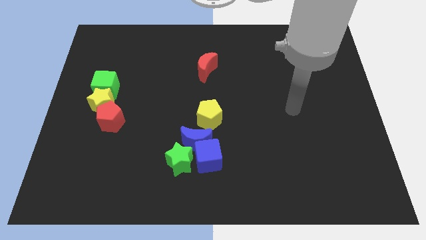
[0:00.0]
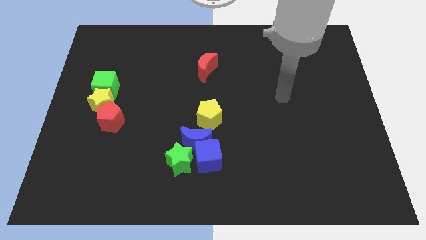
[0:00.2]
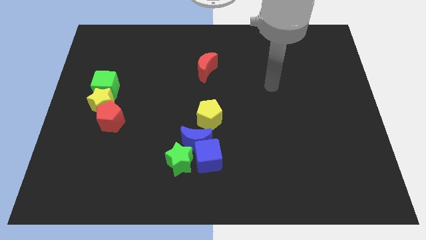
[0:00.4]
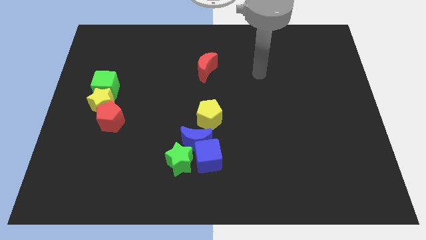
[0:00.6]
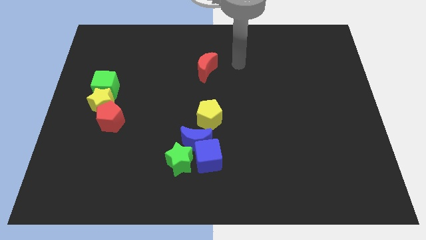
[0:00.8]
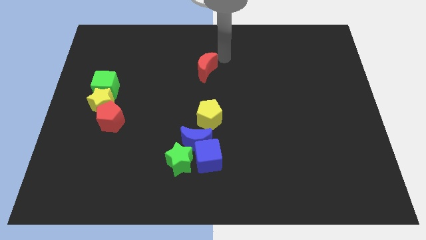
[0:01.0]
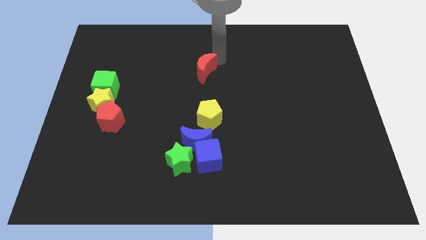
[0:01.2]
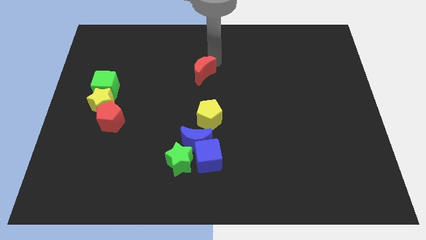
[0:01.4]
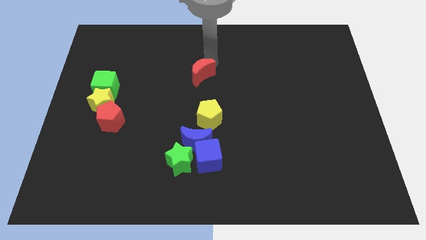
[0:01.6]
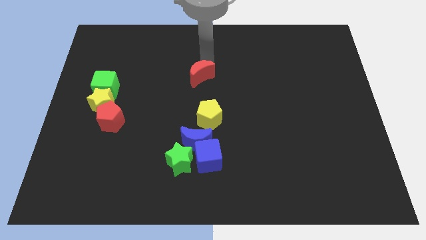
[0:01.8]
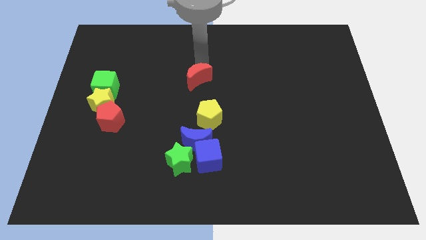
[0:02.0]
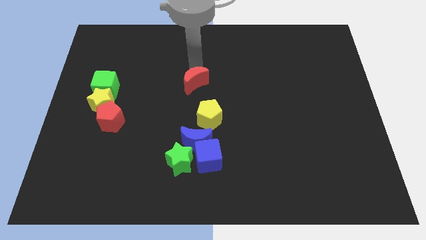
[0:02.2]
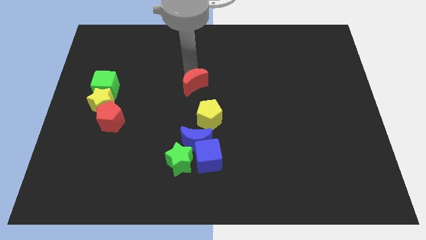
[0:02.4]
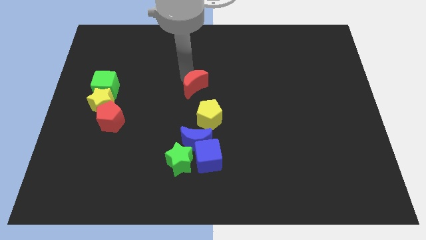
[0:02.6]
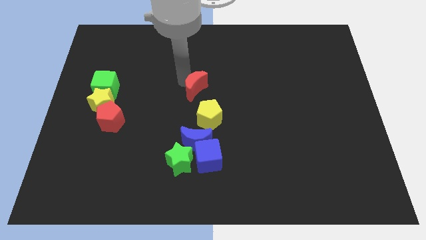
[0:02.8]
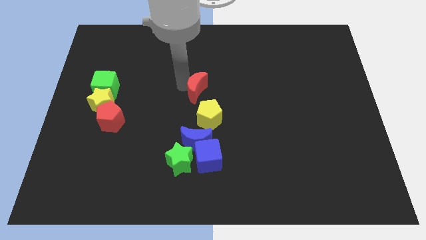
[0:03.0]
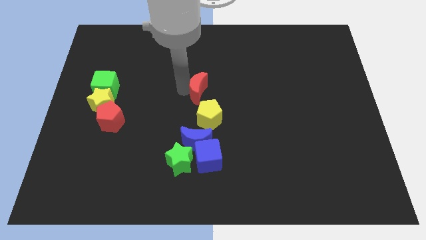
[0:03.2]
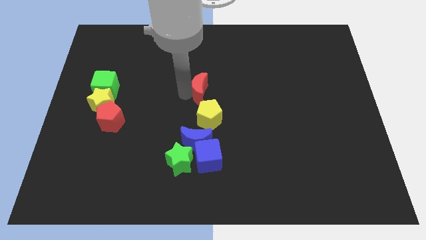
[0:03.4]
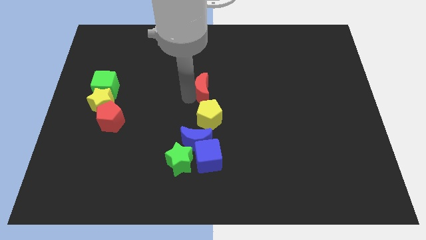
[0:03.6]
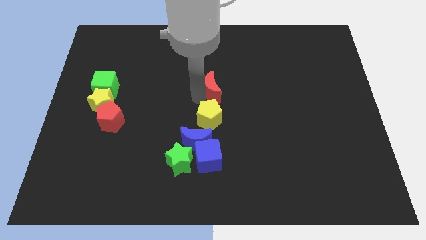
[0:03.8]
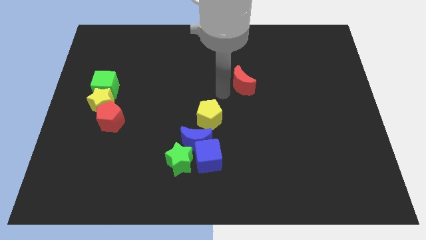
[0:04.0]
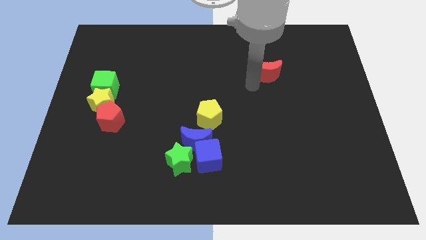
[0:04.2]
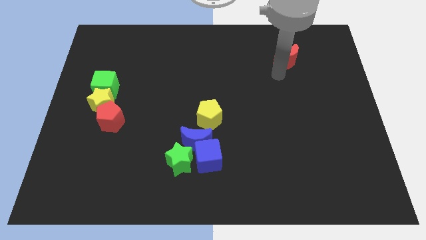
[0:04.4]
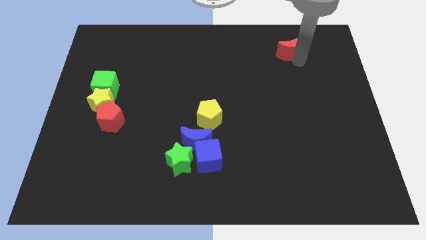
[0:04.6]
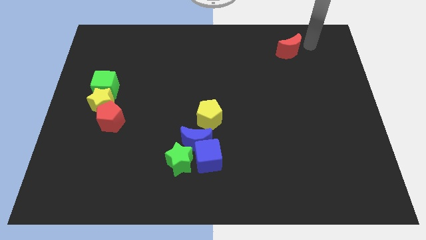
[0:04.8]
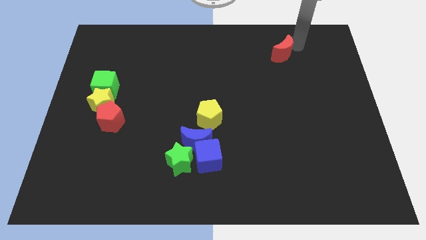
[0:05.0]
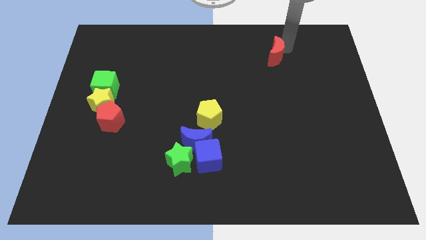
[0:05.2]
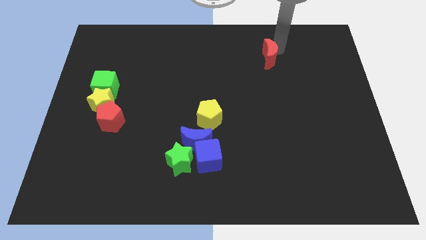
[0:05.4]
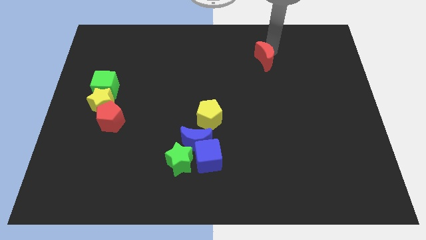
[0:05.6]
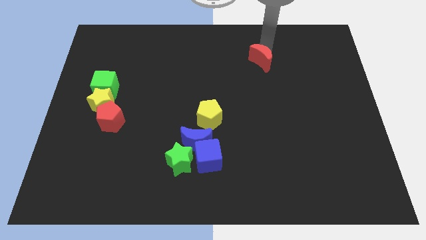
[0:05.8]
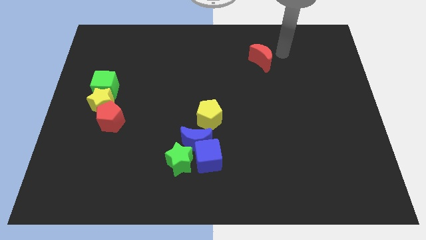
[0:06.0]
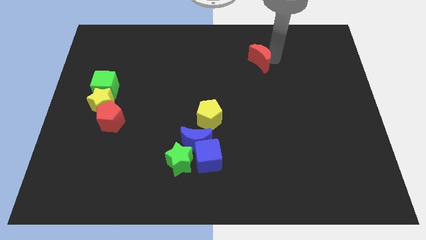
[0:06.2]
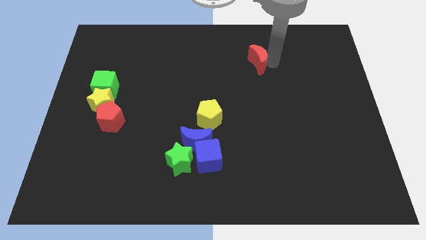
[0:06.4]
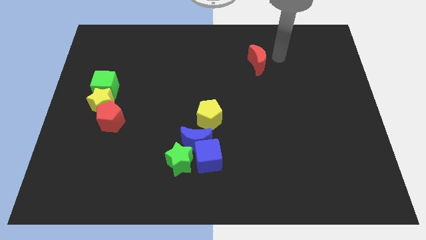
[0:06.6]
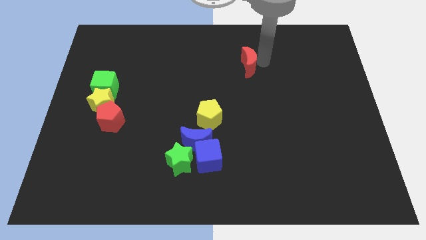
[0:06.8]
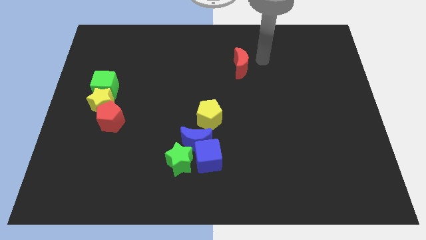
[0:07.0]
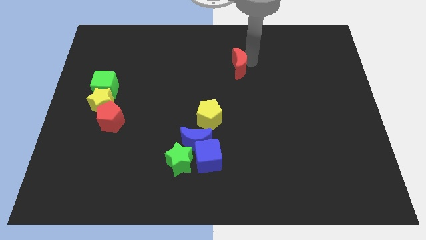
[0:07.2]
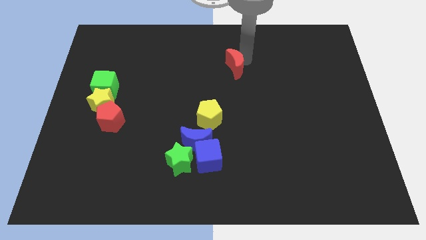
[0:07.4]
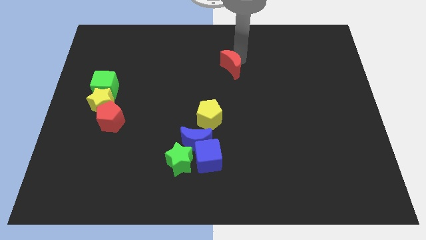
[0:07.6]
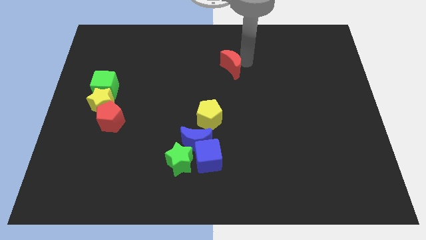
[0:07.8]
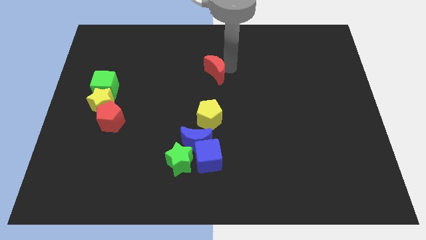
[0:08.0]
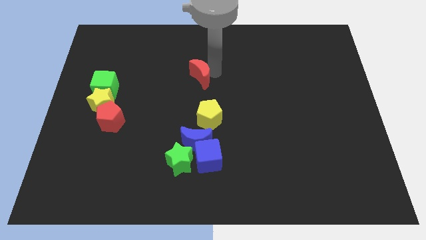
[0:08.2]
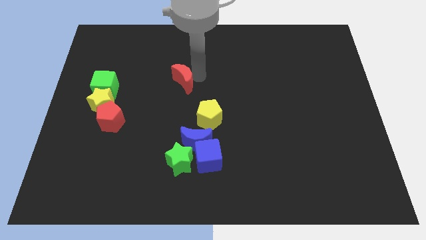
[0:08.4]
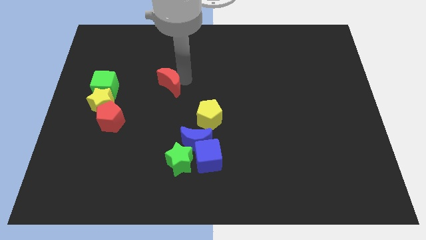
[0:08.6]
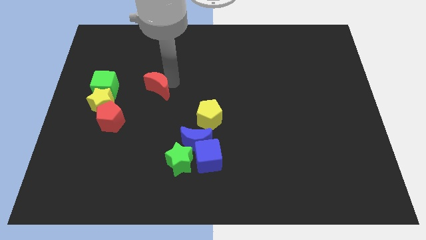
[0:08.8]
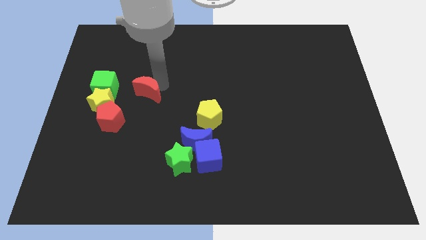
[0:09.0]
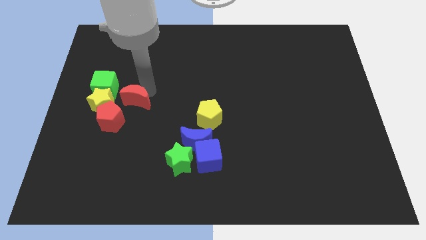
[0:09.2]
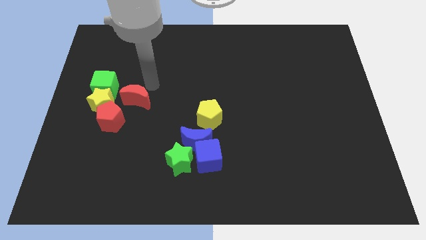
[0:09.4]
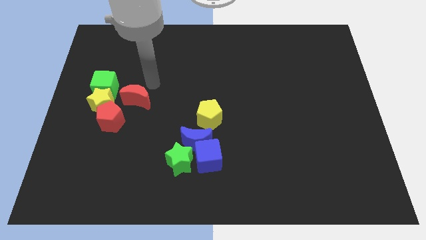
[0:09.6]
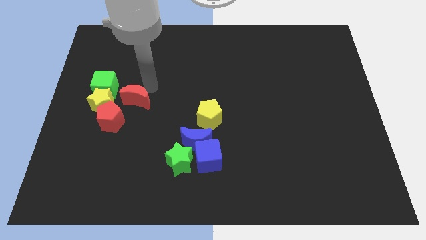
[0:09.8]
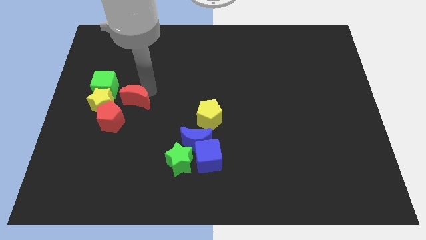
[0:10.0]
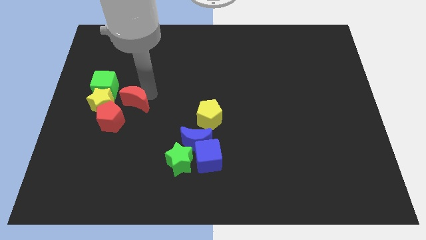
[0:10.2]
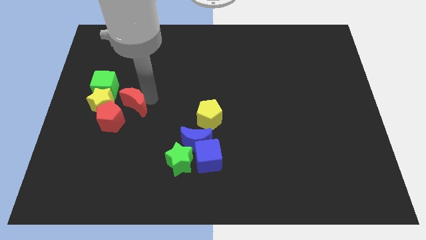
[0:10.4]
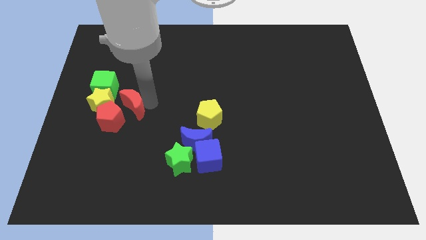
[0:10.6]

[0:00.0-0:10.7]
push the red moon to the red pentagon

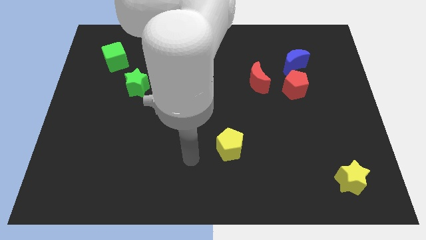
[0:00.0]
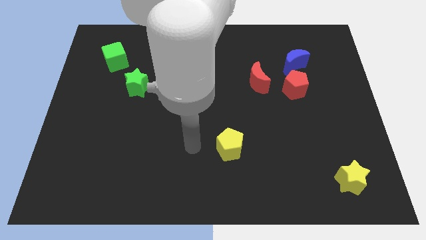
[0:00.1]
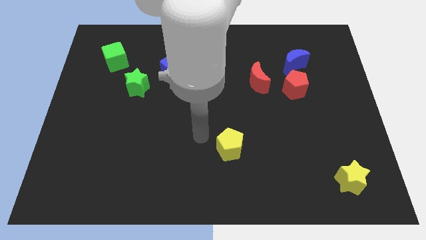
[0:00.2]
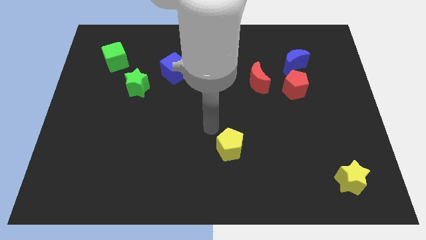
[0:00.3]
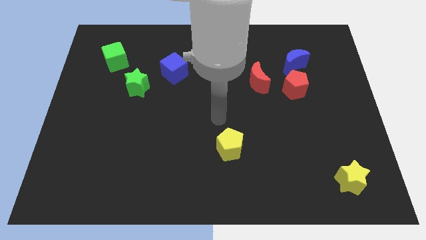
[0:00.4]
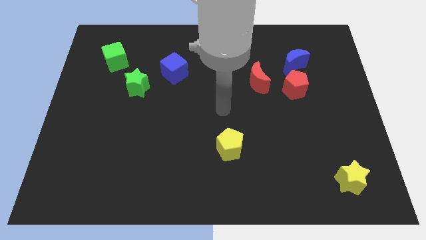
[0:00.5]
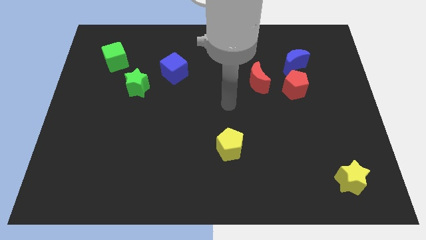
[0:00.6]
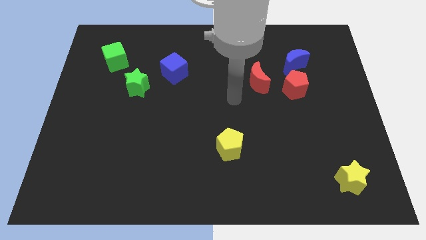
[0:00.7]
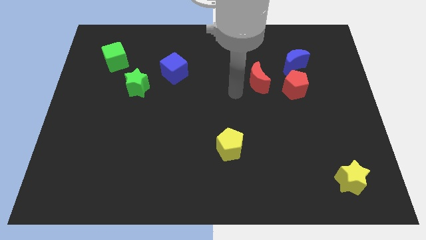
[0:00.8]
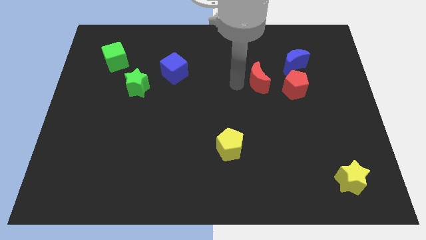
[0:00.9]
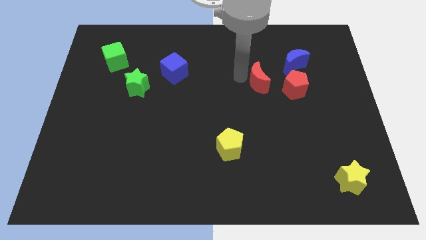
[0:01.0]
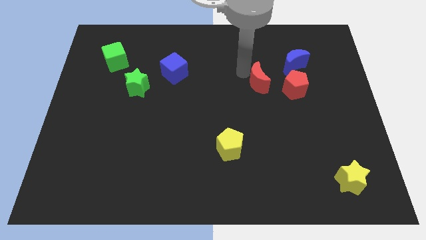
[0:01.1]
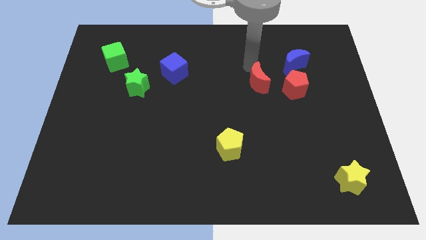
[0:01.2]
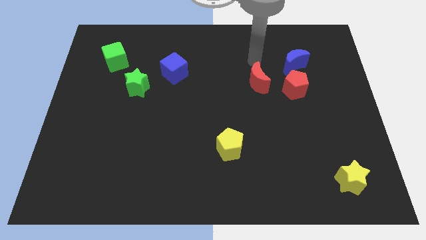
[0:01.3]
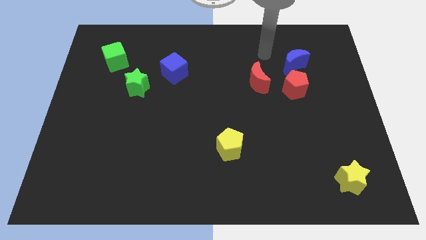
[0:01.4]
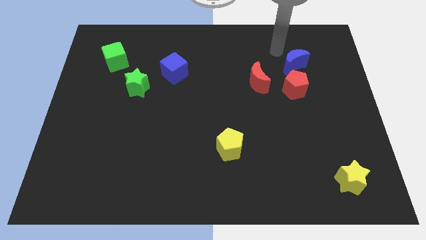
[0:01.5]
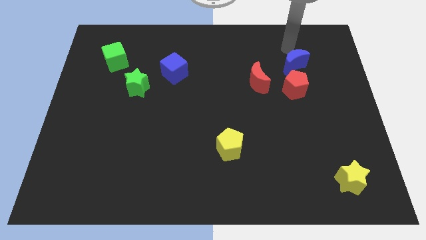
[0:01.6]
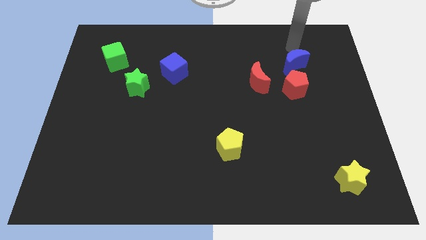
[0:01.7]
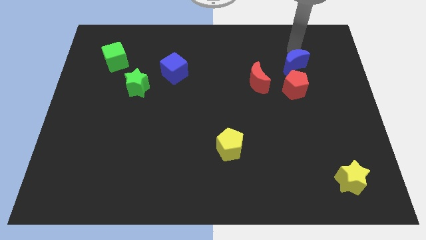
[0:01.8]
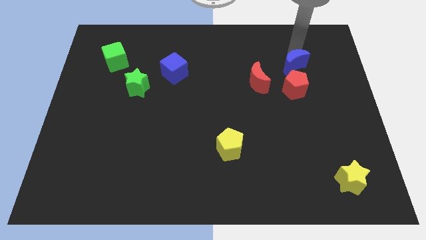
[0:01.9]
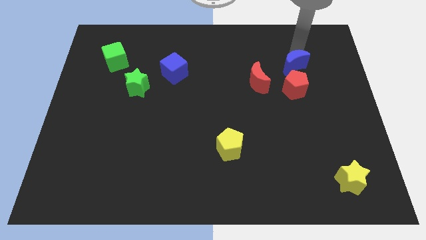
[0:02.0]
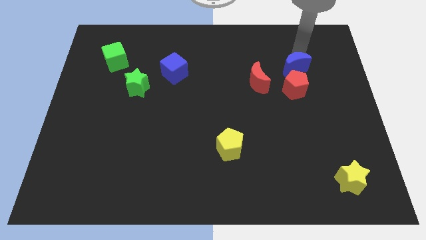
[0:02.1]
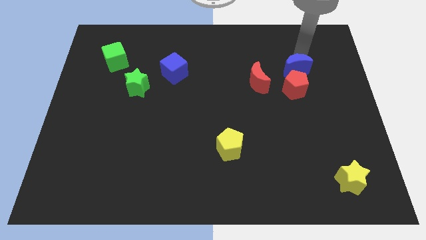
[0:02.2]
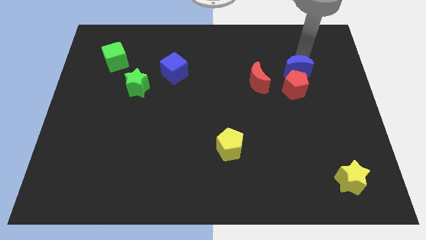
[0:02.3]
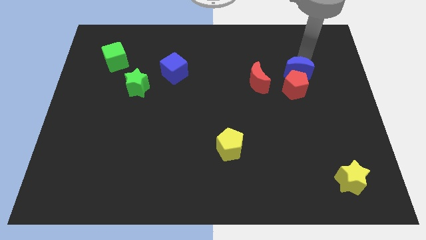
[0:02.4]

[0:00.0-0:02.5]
put the blue moon next to the red pentagon
